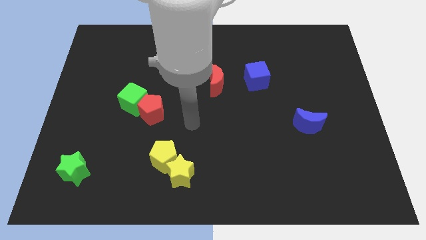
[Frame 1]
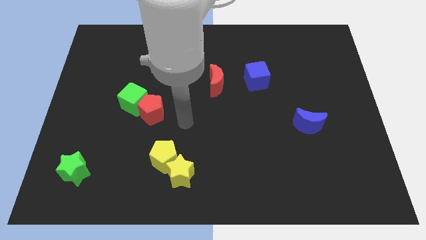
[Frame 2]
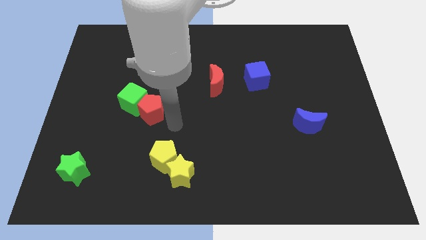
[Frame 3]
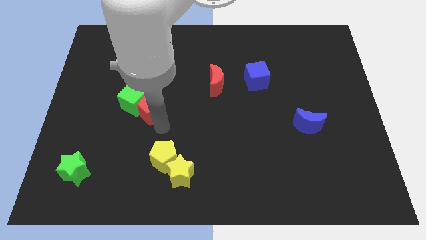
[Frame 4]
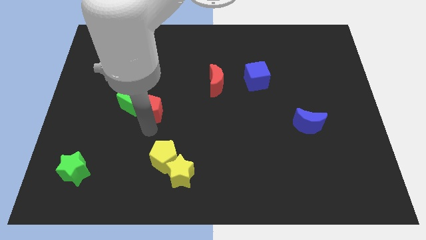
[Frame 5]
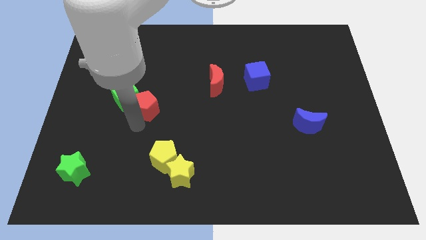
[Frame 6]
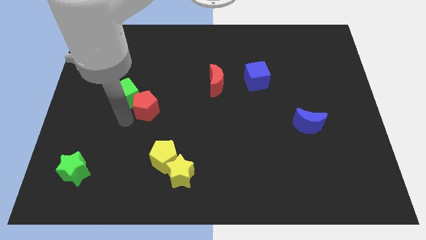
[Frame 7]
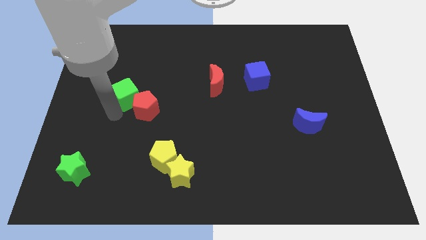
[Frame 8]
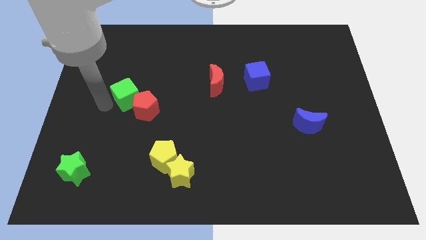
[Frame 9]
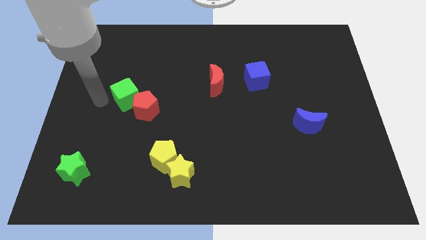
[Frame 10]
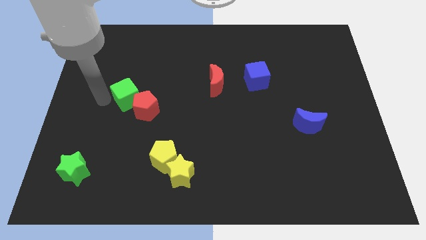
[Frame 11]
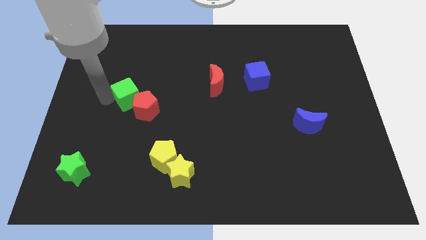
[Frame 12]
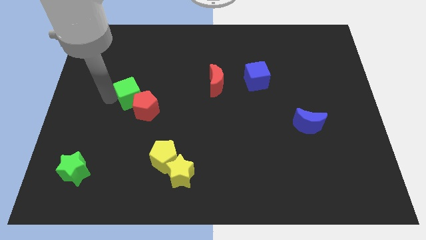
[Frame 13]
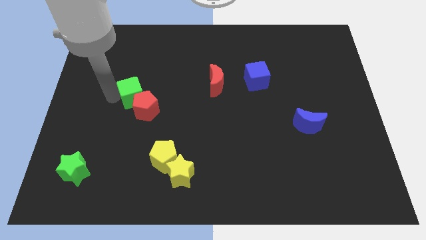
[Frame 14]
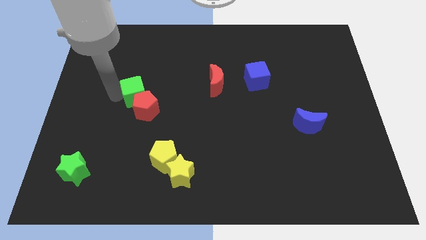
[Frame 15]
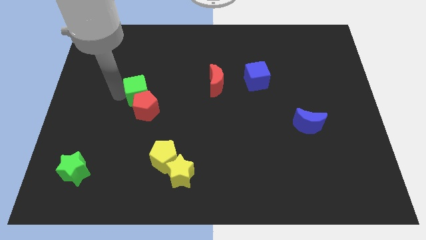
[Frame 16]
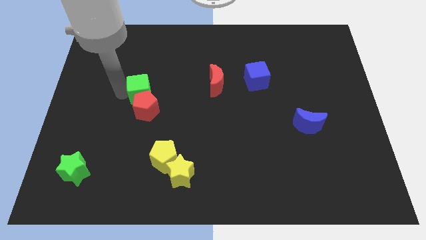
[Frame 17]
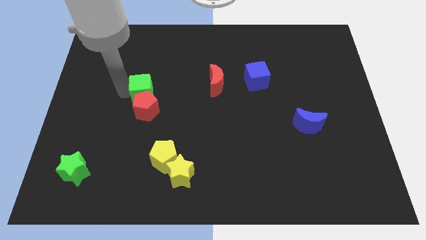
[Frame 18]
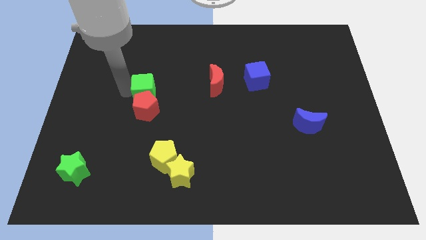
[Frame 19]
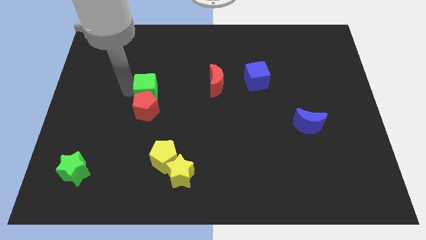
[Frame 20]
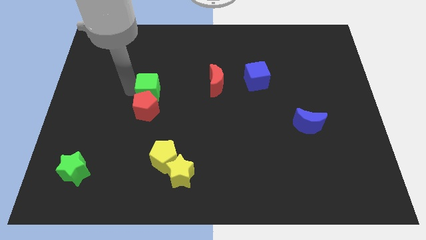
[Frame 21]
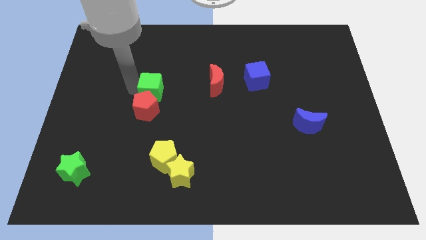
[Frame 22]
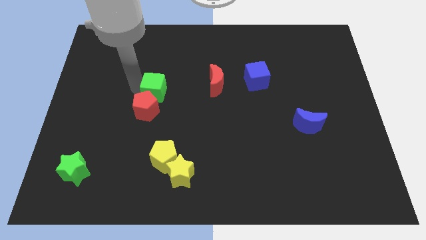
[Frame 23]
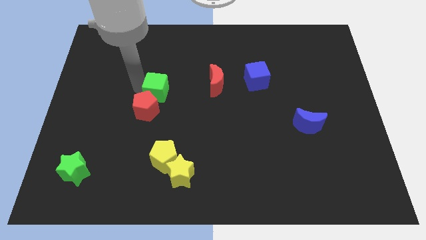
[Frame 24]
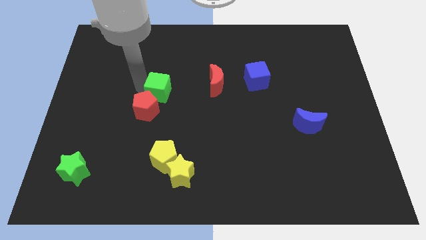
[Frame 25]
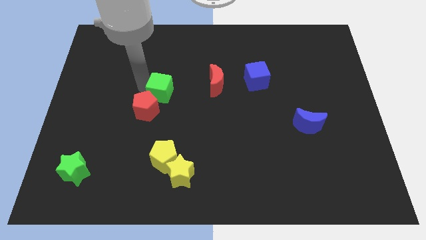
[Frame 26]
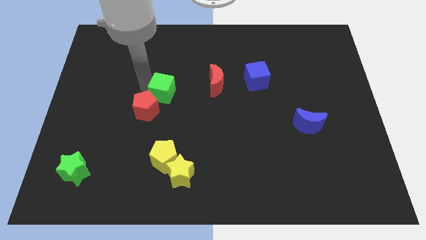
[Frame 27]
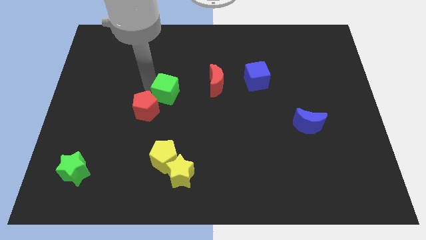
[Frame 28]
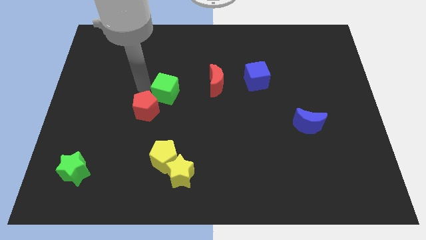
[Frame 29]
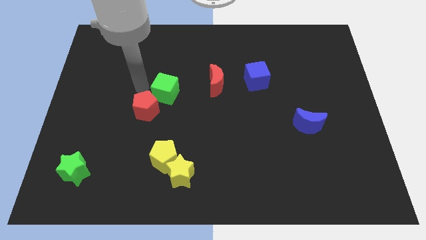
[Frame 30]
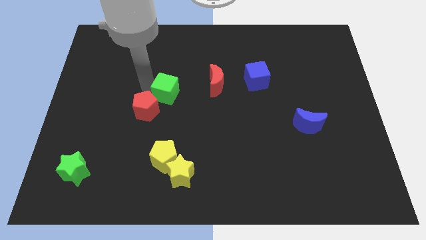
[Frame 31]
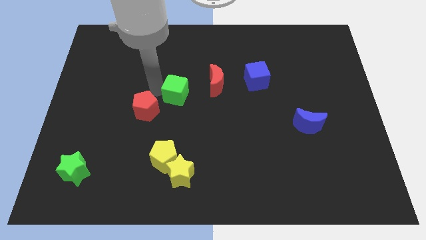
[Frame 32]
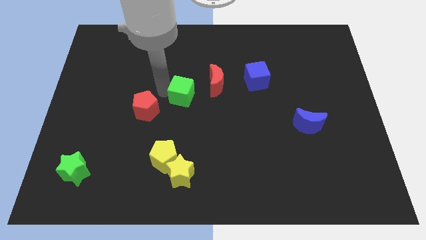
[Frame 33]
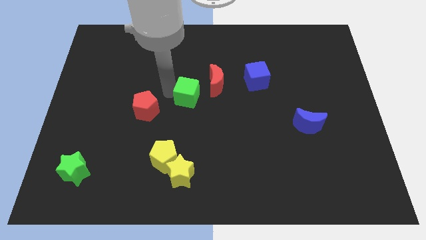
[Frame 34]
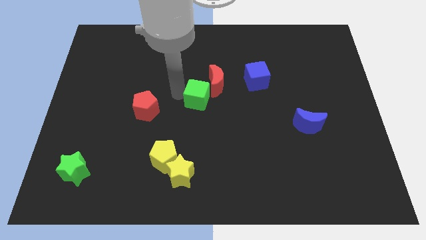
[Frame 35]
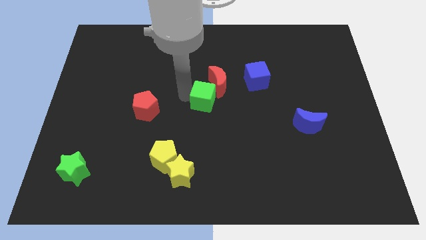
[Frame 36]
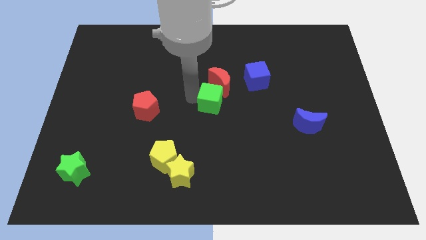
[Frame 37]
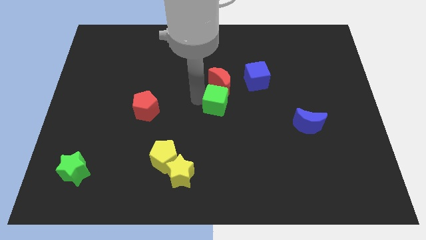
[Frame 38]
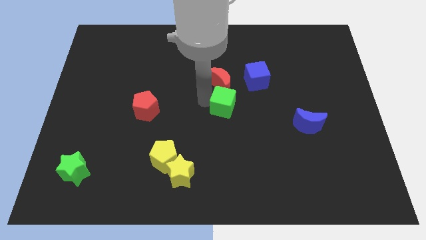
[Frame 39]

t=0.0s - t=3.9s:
slide the green cube right

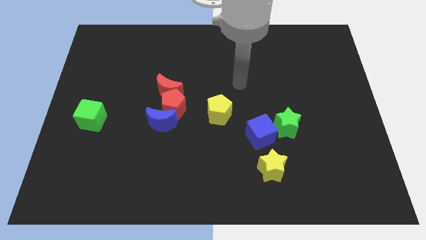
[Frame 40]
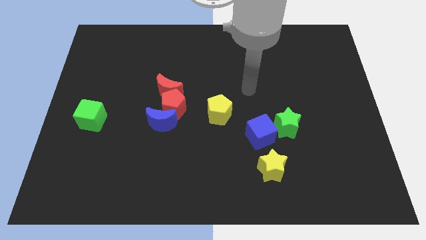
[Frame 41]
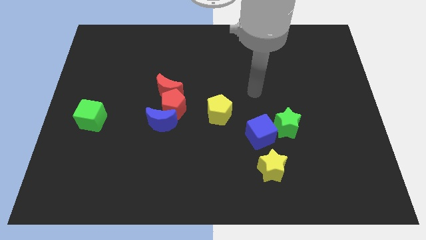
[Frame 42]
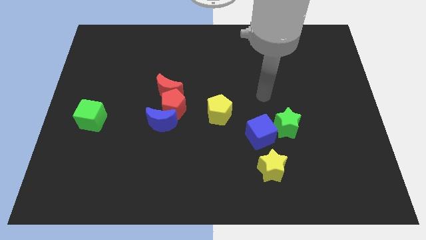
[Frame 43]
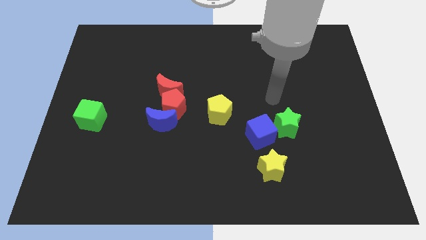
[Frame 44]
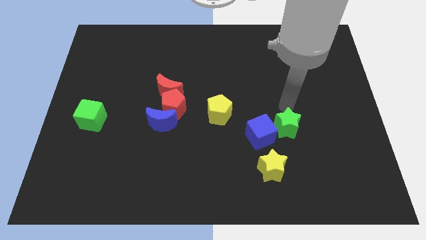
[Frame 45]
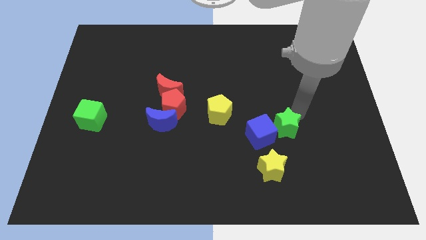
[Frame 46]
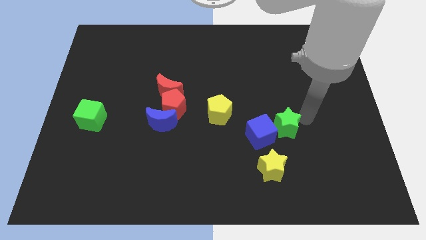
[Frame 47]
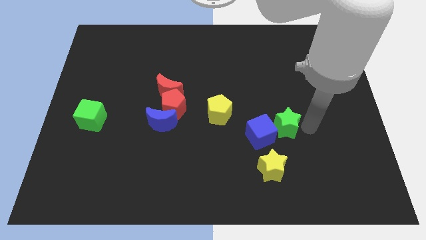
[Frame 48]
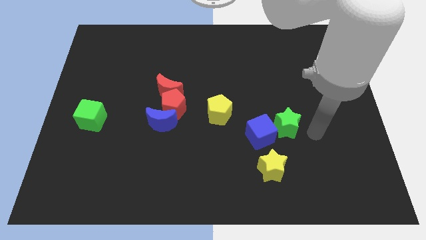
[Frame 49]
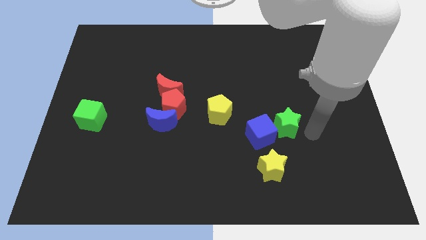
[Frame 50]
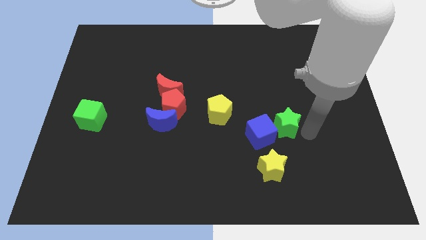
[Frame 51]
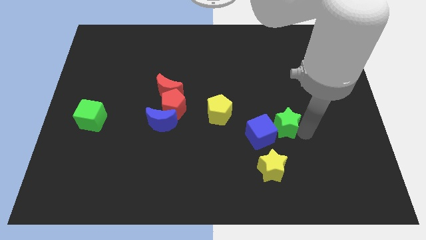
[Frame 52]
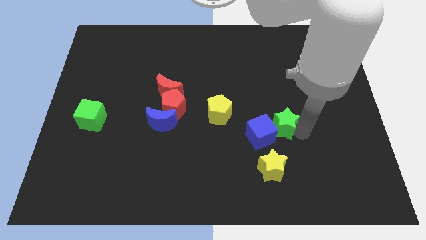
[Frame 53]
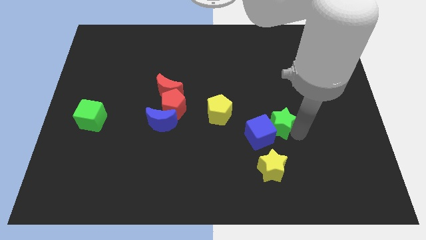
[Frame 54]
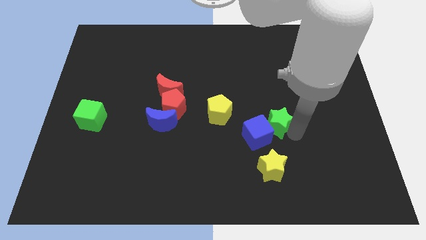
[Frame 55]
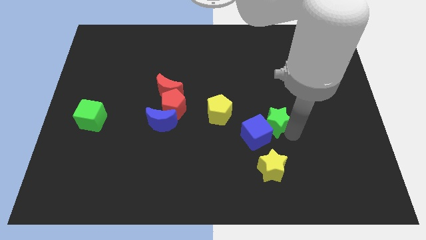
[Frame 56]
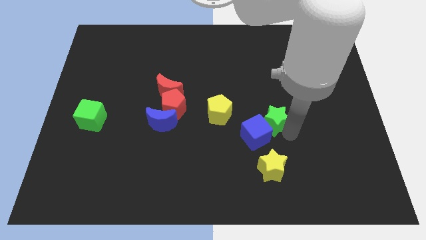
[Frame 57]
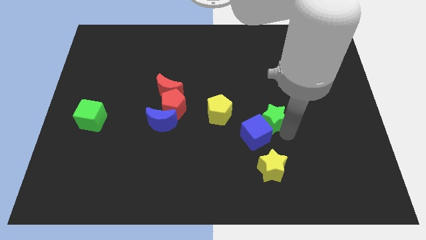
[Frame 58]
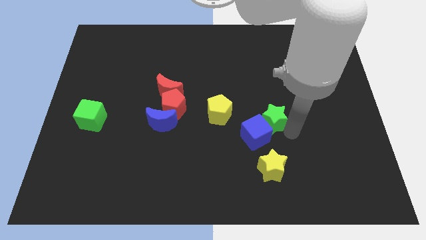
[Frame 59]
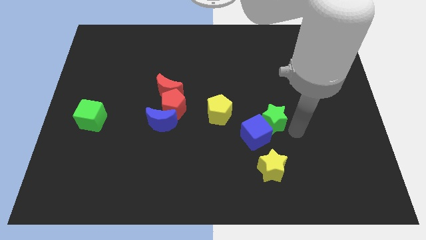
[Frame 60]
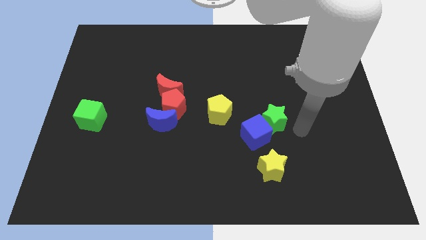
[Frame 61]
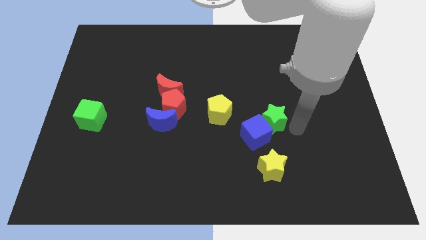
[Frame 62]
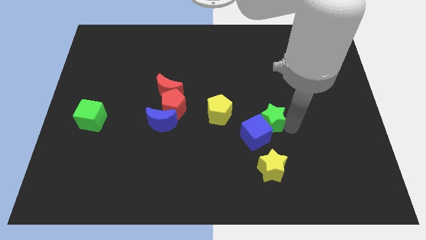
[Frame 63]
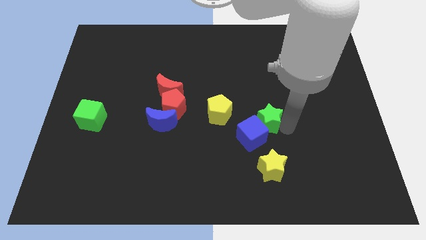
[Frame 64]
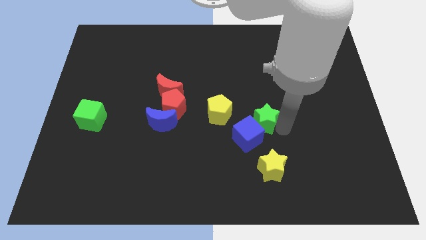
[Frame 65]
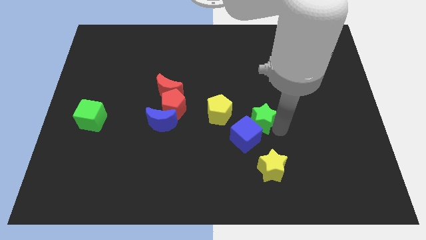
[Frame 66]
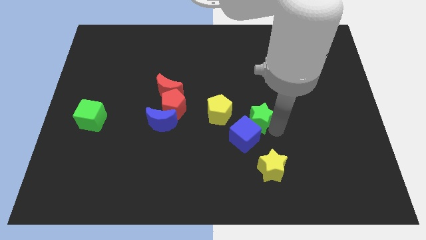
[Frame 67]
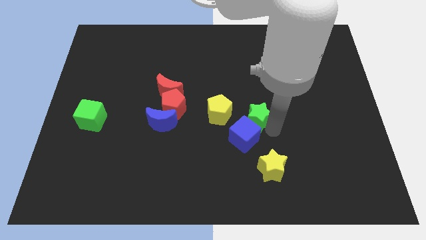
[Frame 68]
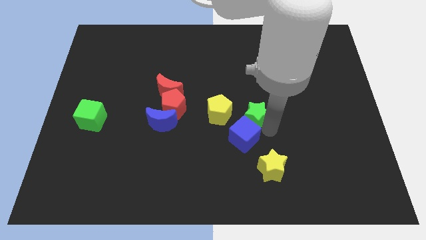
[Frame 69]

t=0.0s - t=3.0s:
push the green star to the left slightly

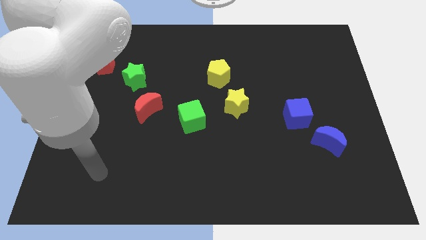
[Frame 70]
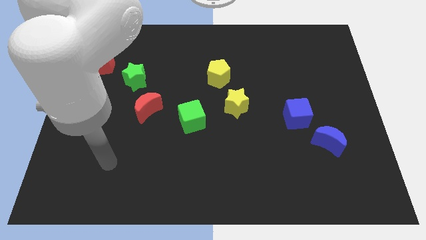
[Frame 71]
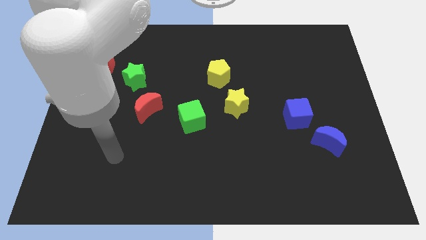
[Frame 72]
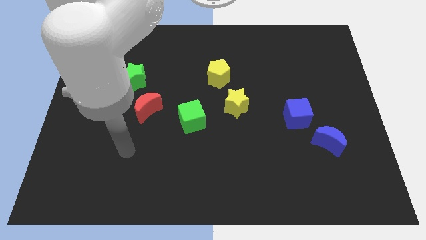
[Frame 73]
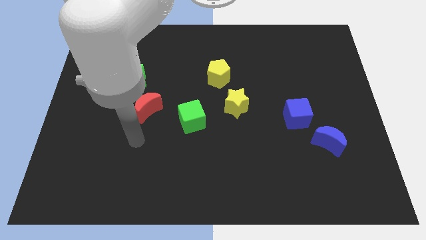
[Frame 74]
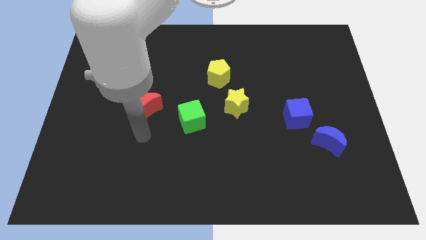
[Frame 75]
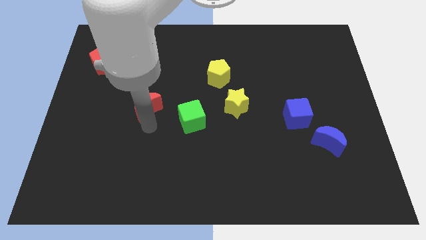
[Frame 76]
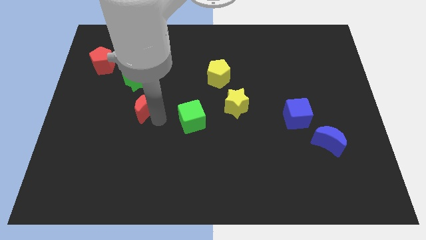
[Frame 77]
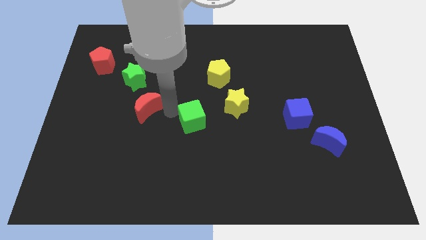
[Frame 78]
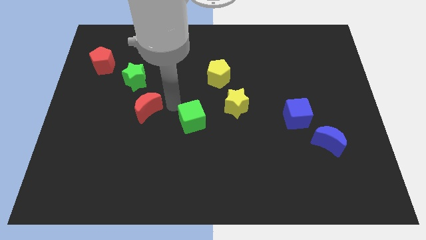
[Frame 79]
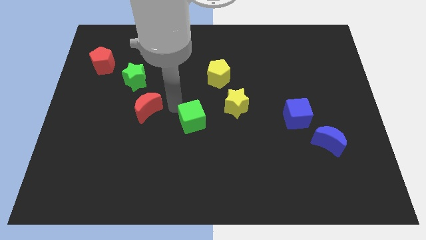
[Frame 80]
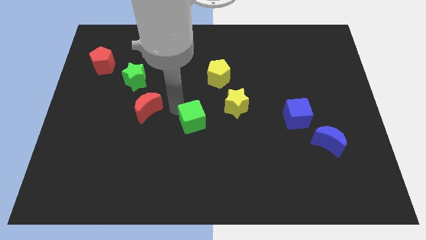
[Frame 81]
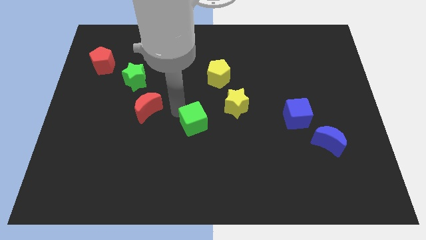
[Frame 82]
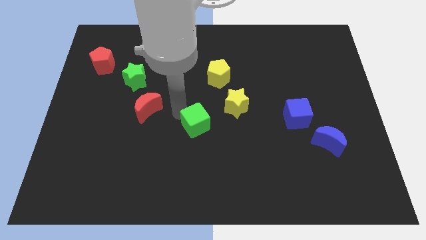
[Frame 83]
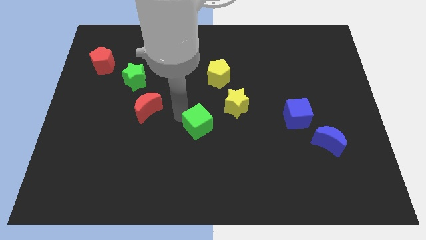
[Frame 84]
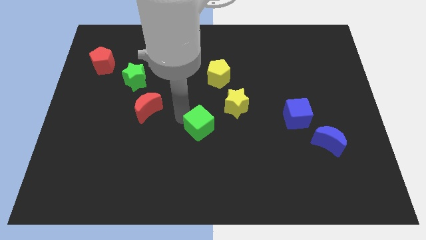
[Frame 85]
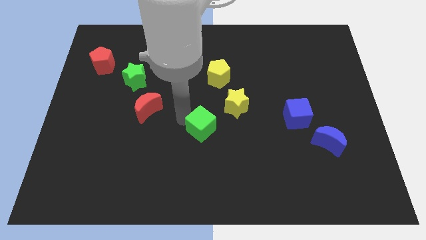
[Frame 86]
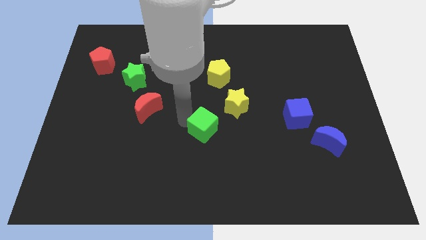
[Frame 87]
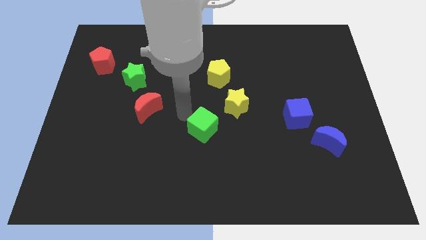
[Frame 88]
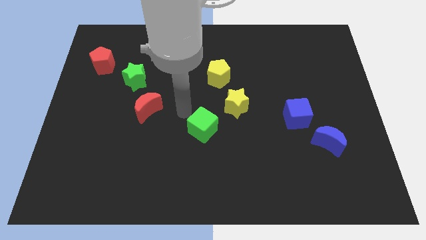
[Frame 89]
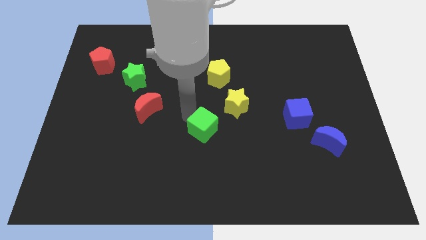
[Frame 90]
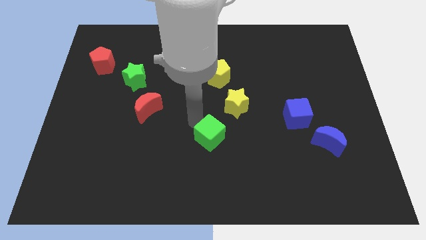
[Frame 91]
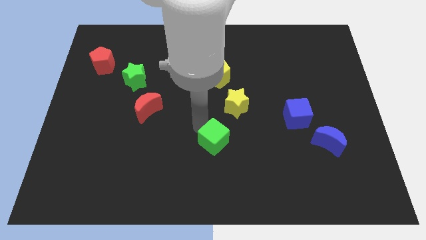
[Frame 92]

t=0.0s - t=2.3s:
slightly push the green cube diagonally downwards and to the right
